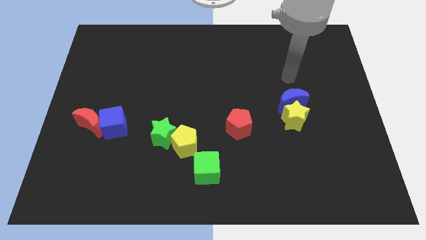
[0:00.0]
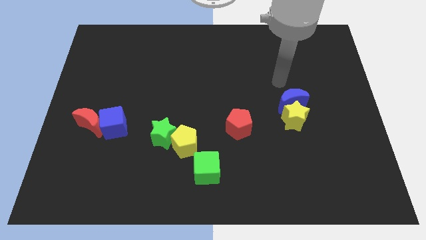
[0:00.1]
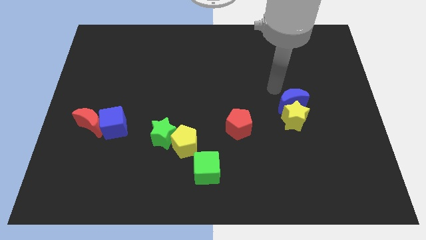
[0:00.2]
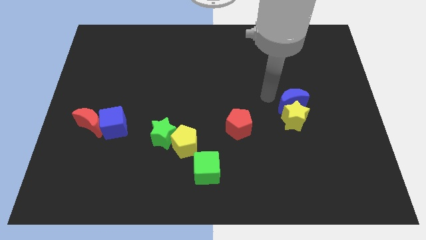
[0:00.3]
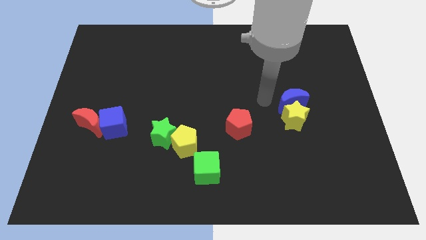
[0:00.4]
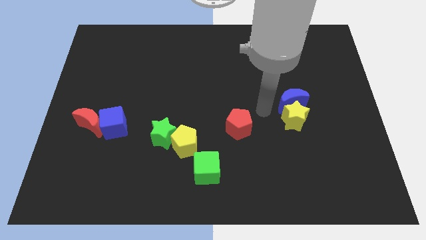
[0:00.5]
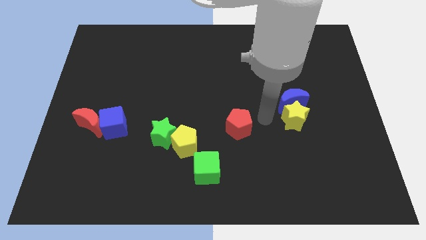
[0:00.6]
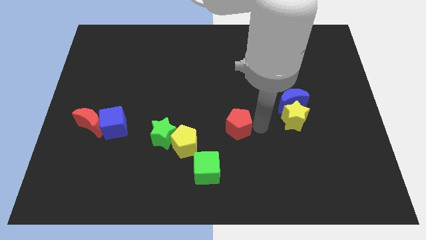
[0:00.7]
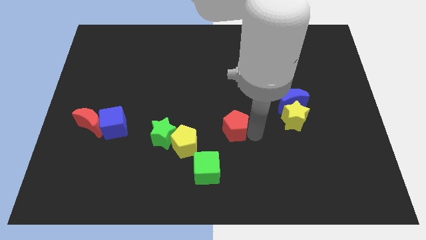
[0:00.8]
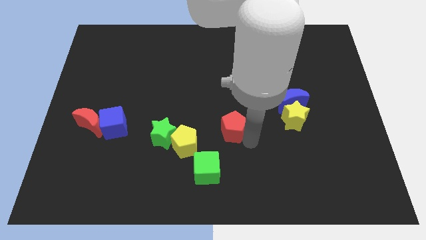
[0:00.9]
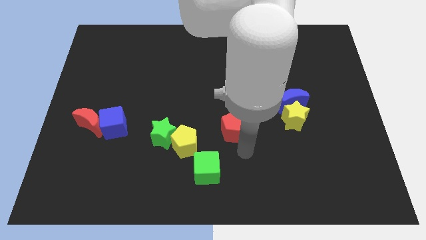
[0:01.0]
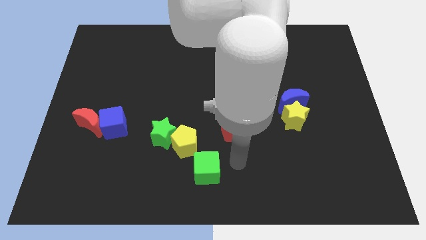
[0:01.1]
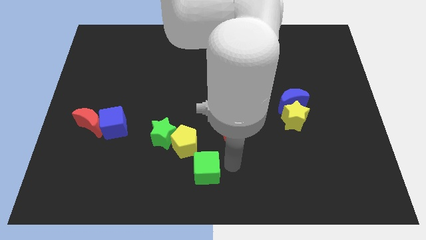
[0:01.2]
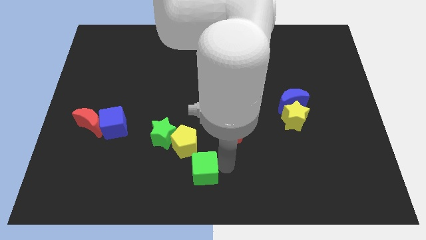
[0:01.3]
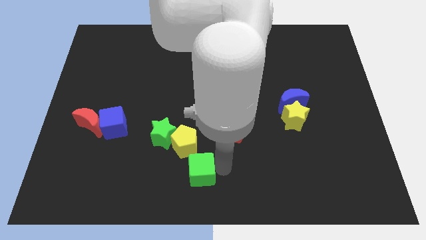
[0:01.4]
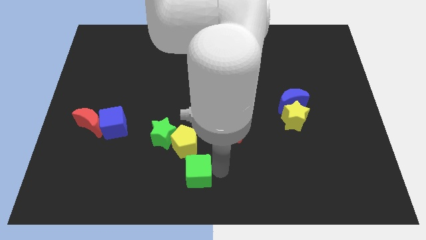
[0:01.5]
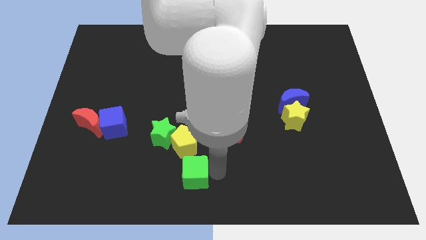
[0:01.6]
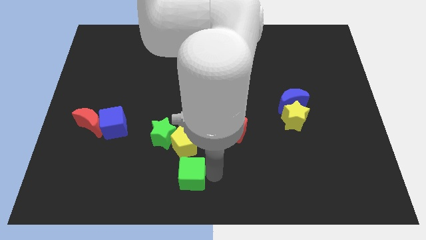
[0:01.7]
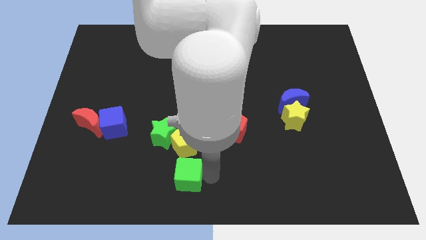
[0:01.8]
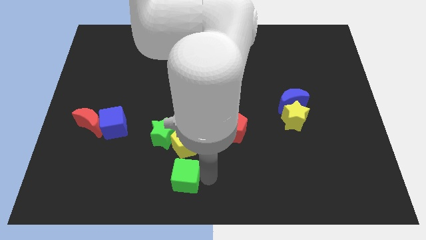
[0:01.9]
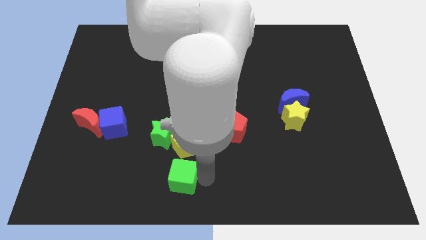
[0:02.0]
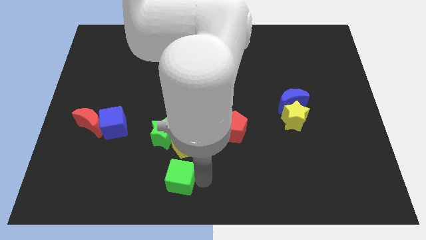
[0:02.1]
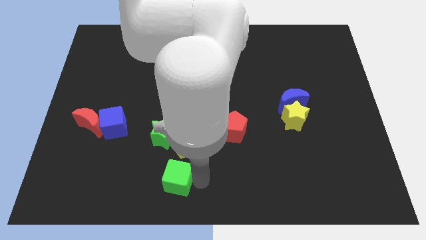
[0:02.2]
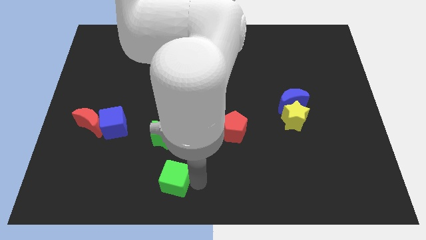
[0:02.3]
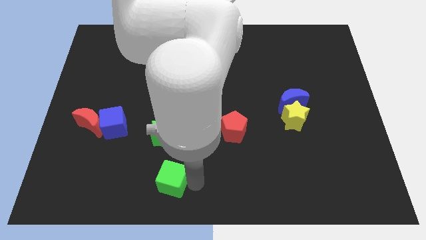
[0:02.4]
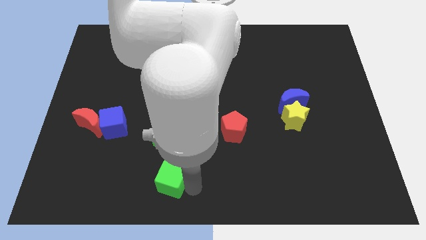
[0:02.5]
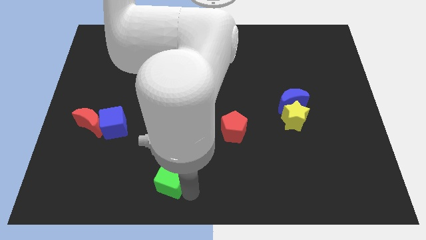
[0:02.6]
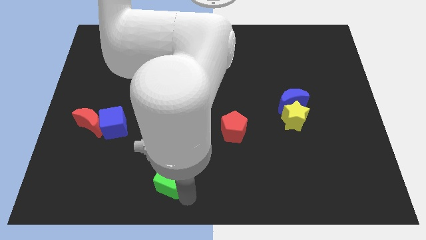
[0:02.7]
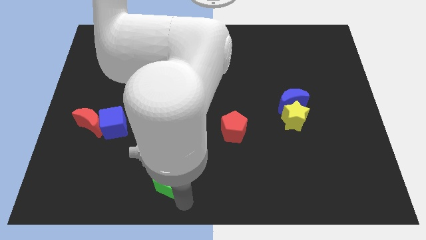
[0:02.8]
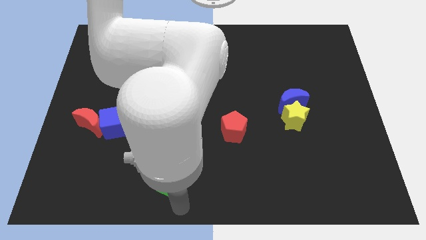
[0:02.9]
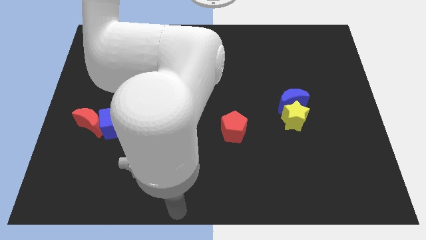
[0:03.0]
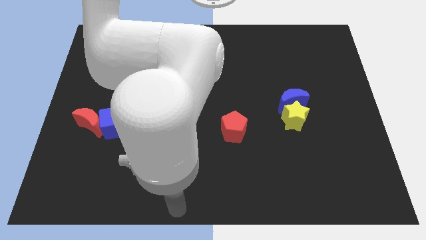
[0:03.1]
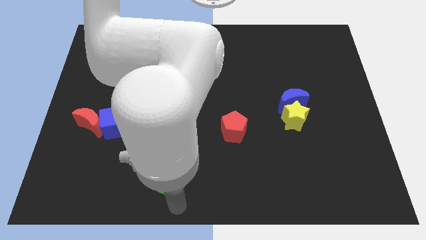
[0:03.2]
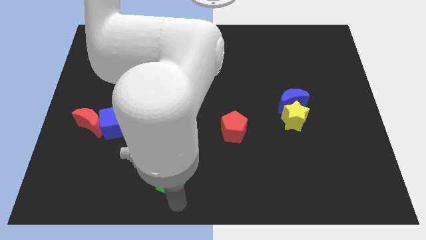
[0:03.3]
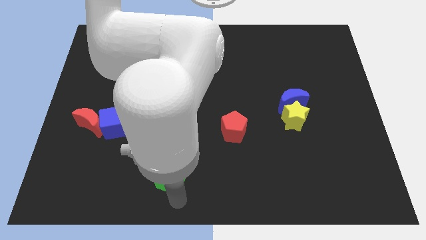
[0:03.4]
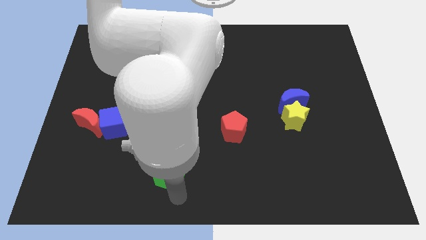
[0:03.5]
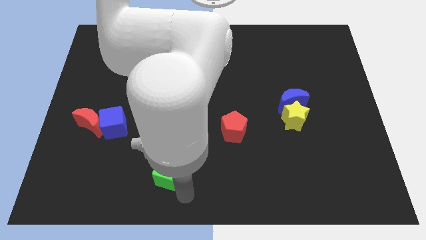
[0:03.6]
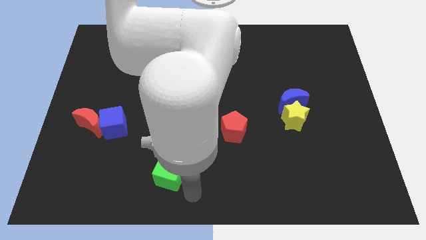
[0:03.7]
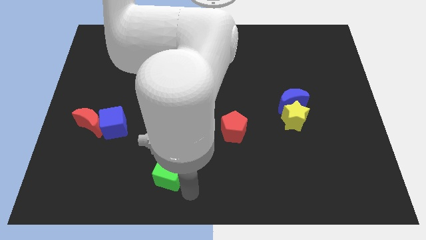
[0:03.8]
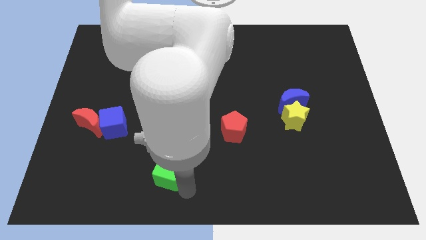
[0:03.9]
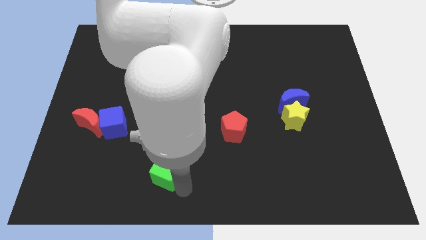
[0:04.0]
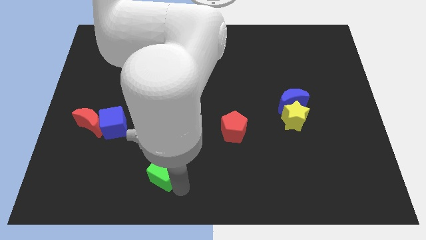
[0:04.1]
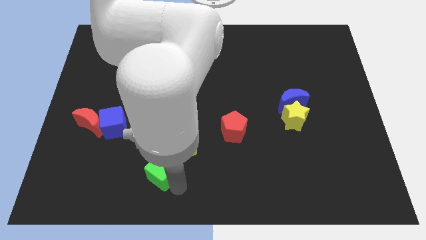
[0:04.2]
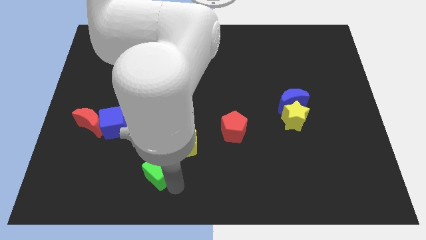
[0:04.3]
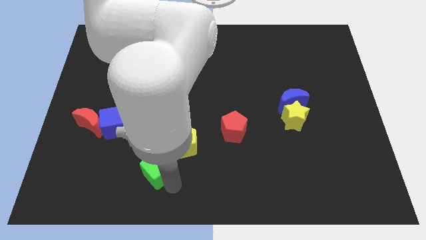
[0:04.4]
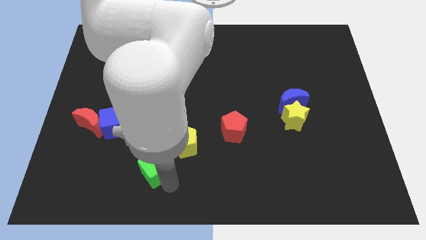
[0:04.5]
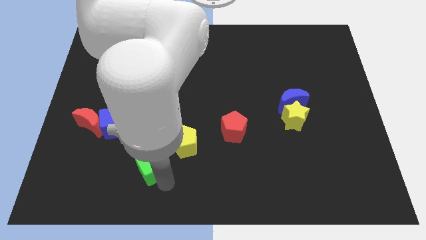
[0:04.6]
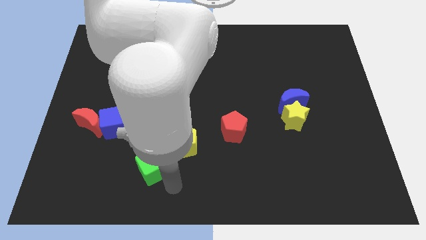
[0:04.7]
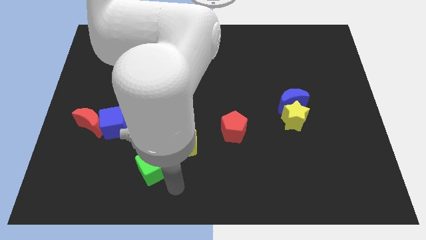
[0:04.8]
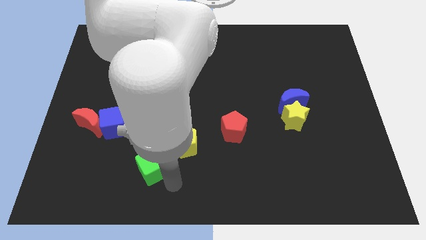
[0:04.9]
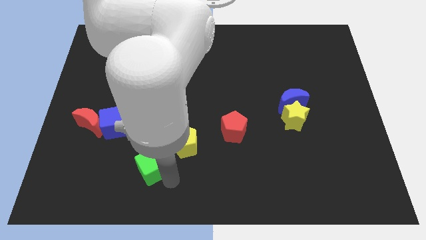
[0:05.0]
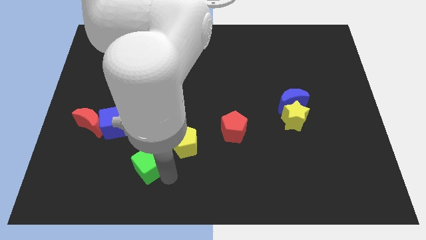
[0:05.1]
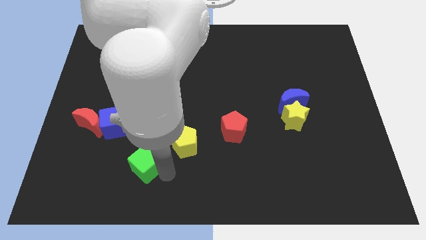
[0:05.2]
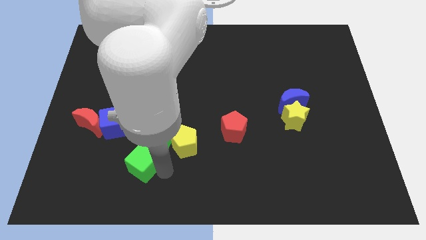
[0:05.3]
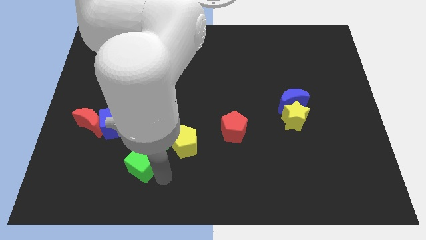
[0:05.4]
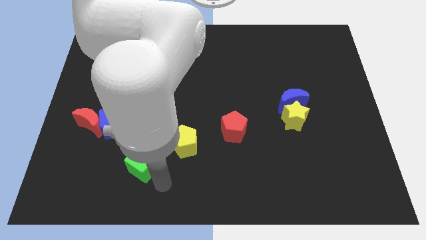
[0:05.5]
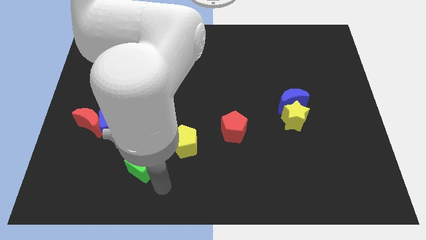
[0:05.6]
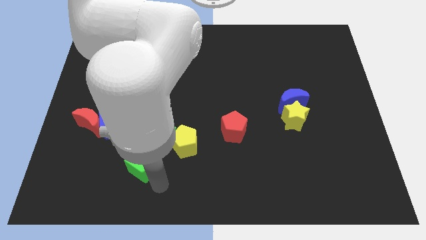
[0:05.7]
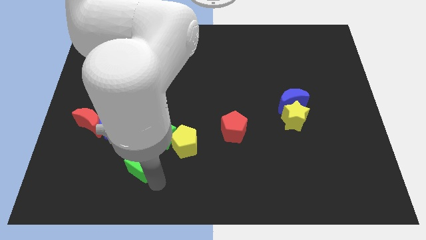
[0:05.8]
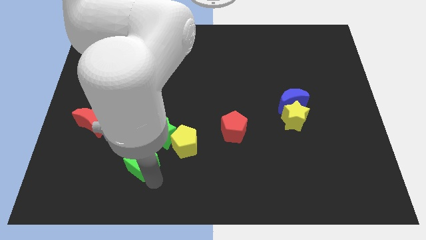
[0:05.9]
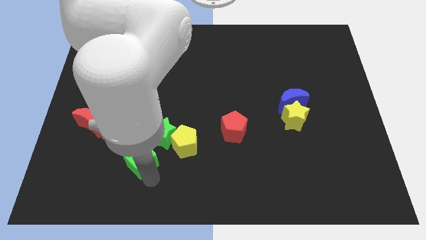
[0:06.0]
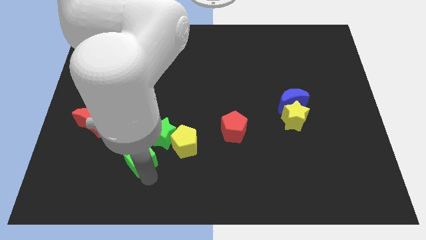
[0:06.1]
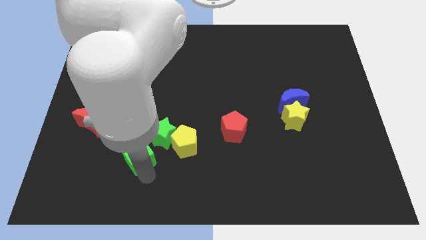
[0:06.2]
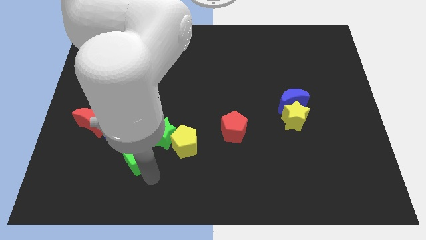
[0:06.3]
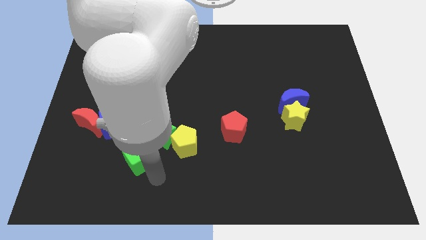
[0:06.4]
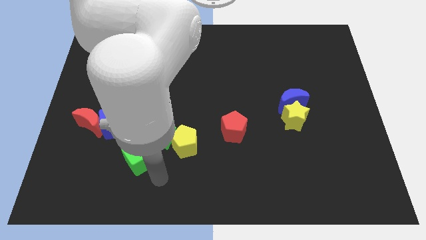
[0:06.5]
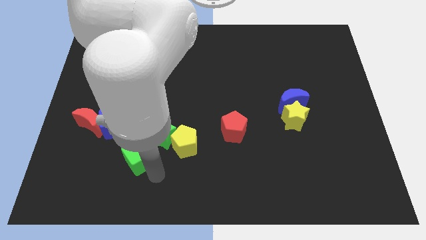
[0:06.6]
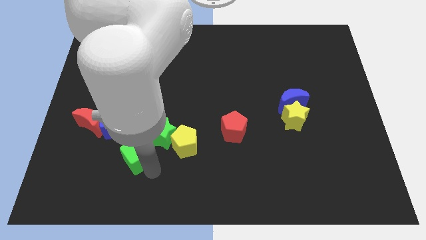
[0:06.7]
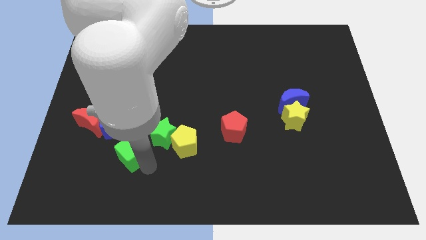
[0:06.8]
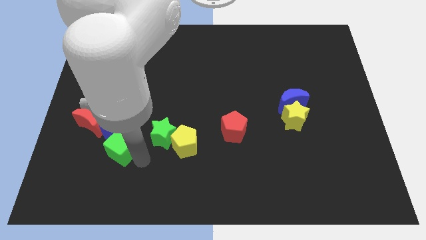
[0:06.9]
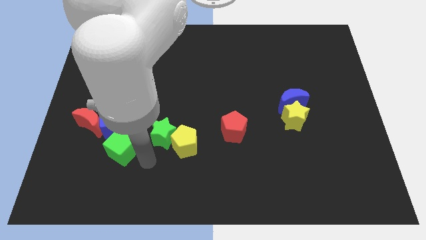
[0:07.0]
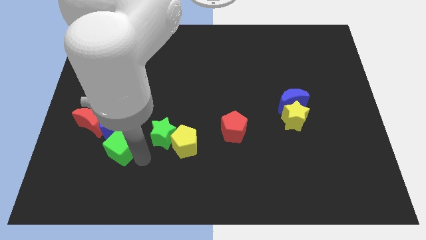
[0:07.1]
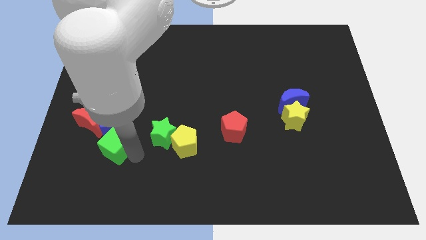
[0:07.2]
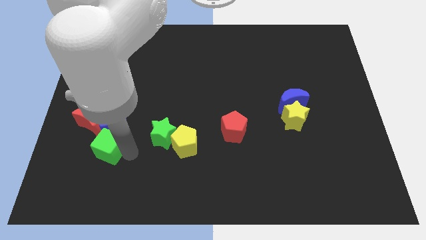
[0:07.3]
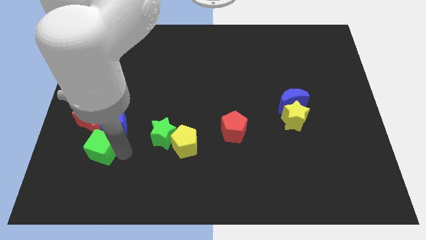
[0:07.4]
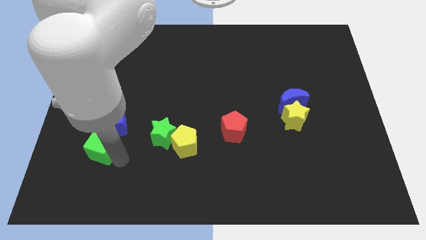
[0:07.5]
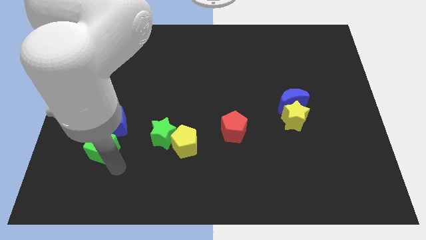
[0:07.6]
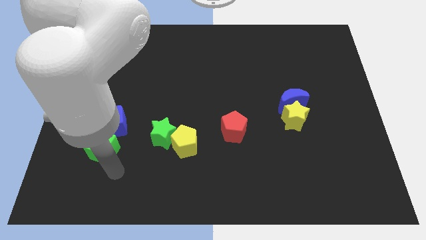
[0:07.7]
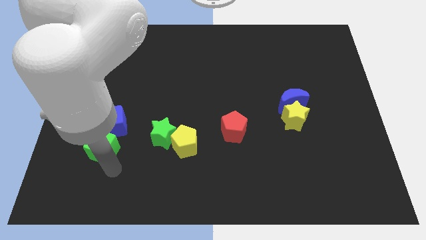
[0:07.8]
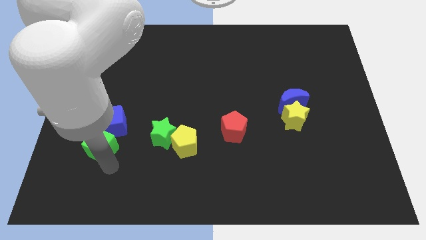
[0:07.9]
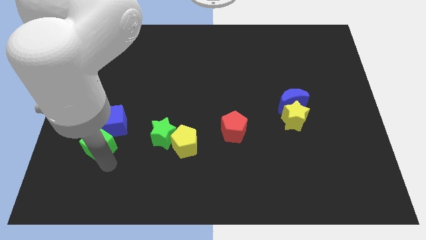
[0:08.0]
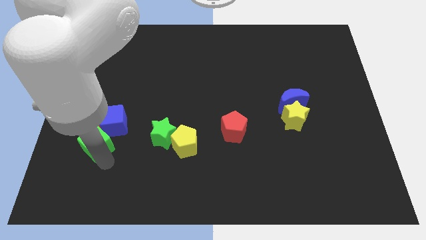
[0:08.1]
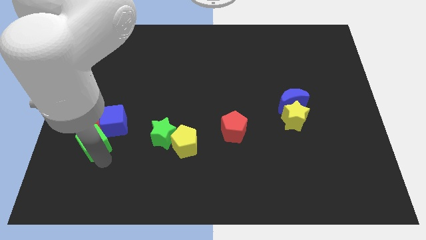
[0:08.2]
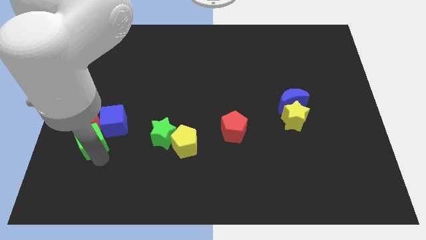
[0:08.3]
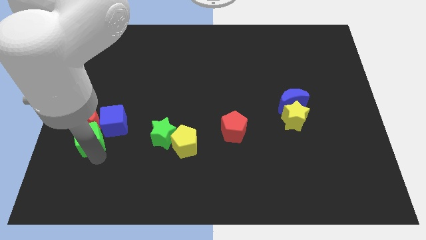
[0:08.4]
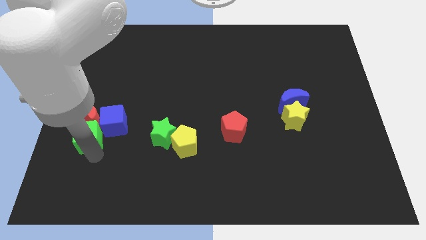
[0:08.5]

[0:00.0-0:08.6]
push the green cube next to the red moon
